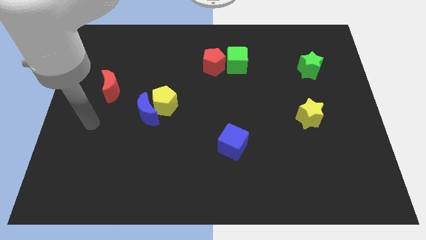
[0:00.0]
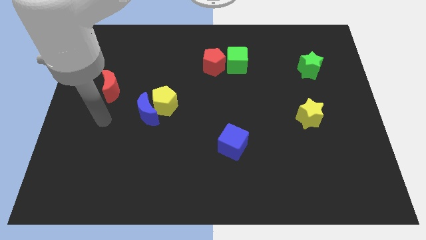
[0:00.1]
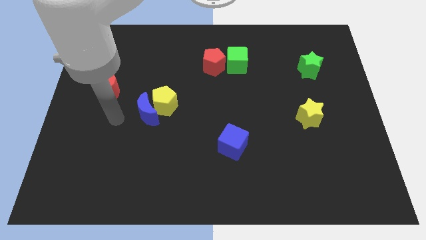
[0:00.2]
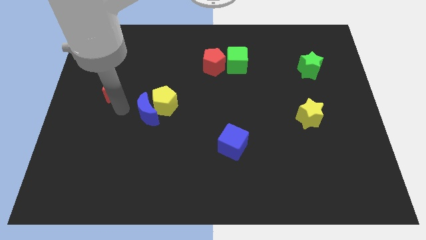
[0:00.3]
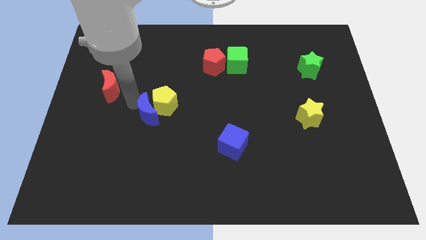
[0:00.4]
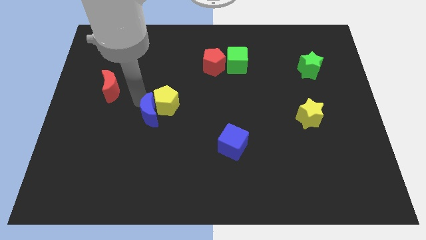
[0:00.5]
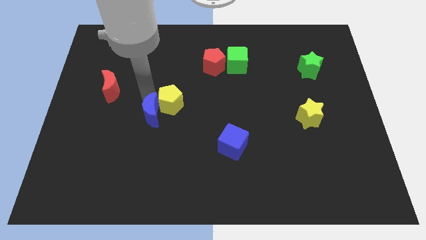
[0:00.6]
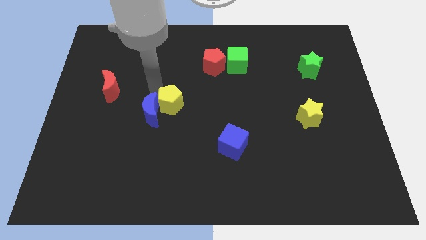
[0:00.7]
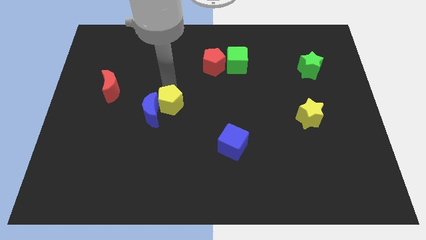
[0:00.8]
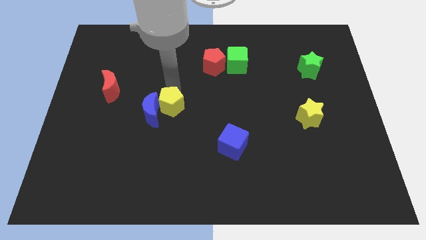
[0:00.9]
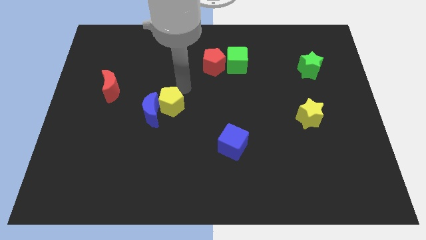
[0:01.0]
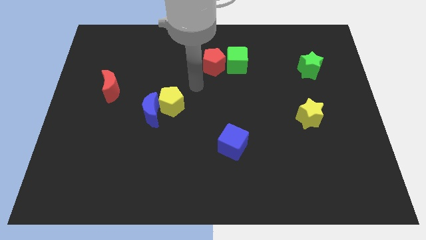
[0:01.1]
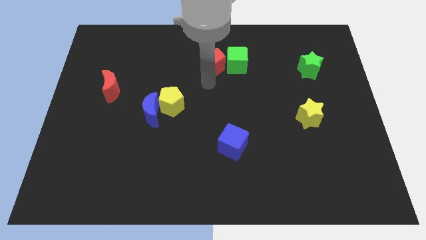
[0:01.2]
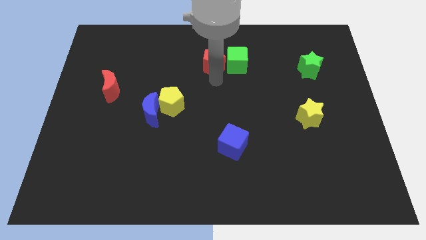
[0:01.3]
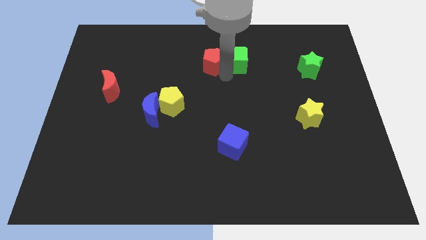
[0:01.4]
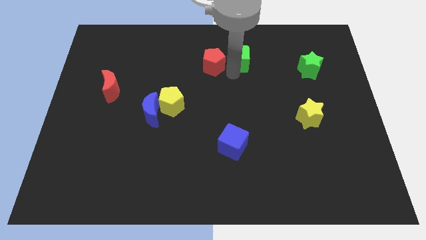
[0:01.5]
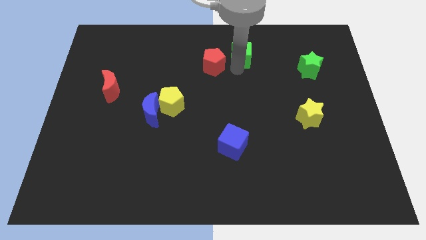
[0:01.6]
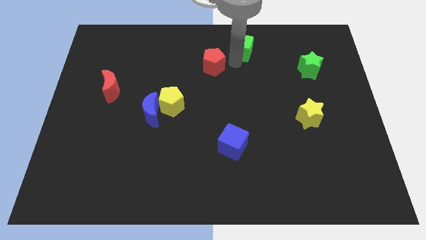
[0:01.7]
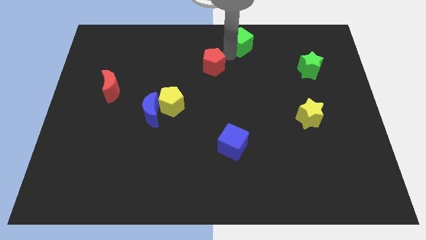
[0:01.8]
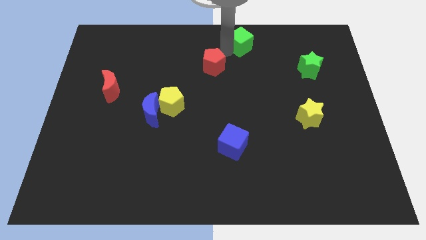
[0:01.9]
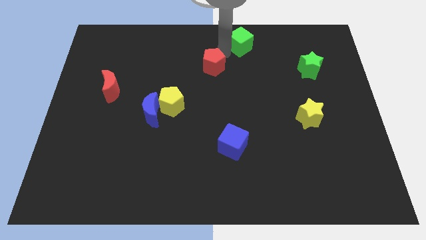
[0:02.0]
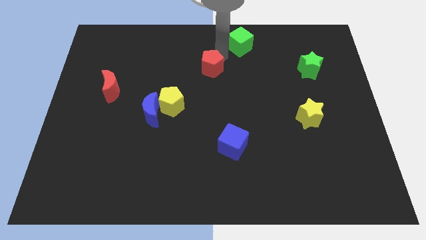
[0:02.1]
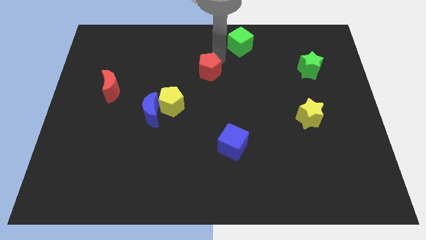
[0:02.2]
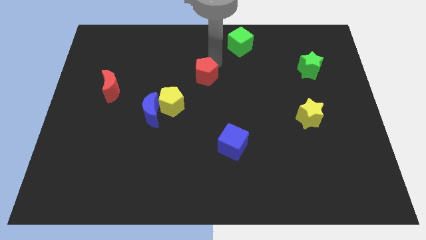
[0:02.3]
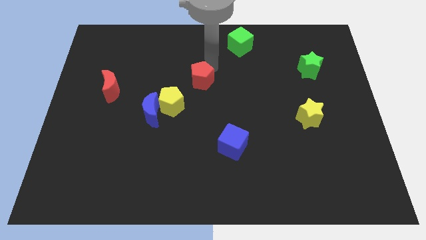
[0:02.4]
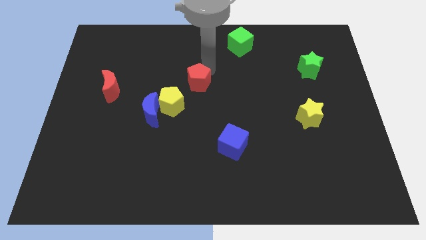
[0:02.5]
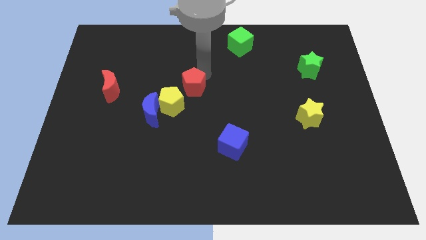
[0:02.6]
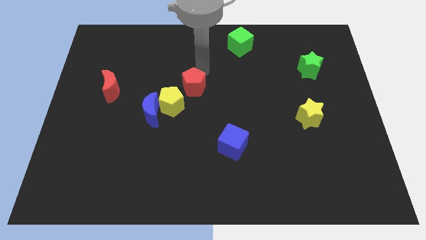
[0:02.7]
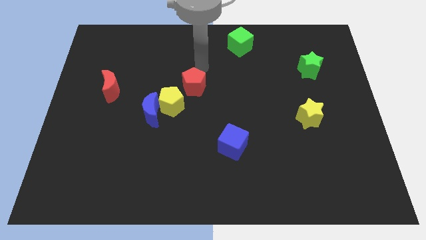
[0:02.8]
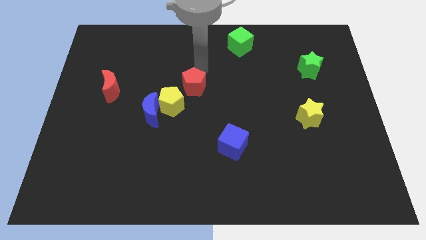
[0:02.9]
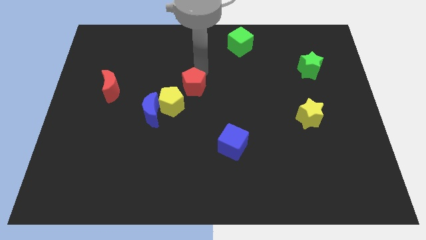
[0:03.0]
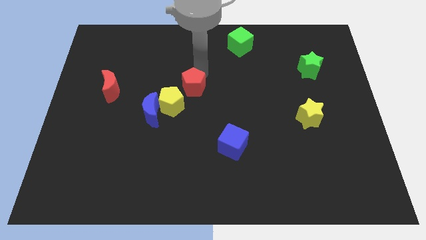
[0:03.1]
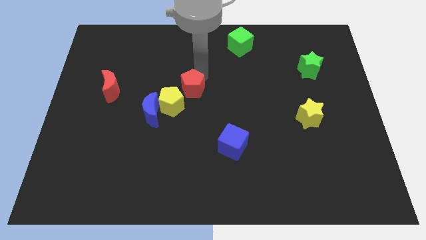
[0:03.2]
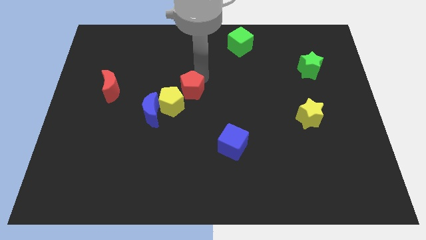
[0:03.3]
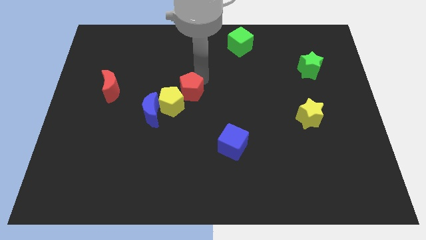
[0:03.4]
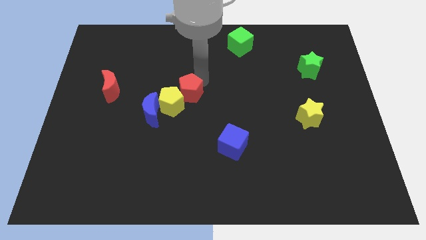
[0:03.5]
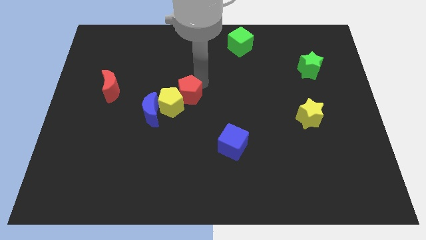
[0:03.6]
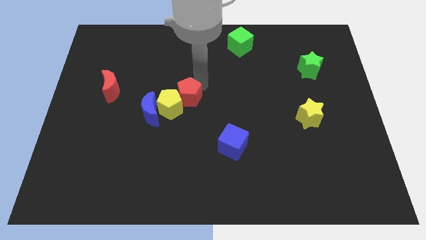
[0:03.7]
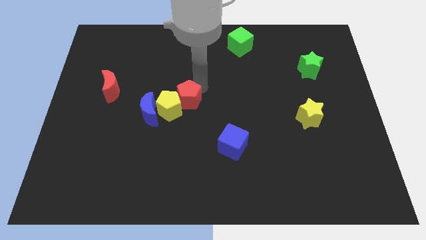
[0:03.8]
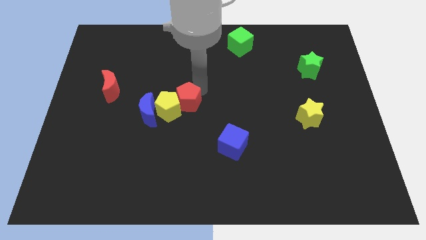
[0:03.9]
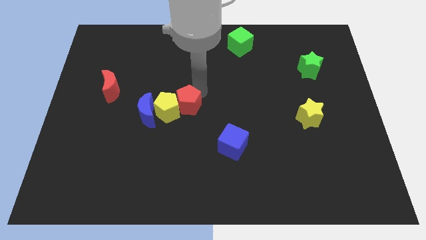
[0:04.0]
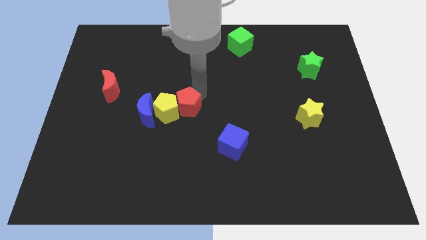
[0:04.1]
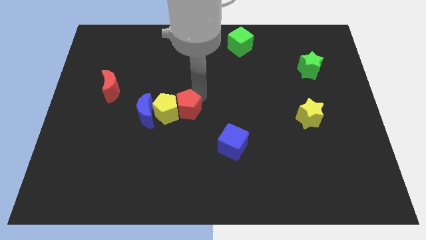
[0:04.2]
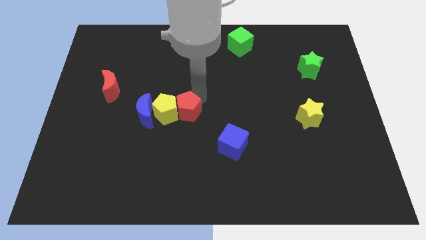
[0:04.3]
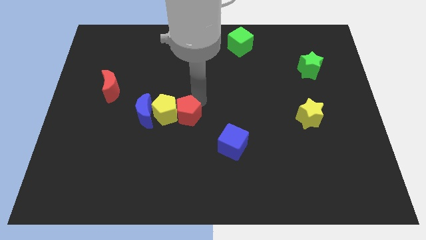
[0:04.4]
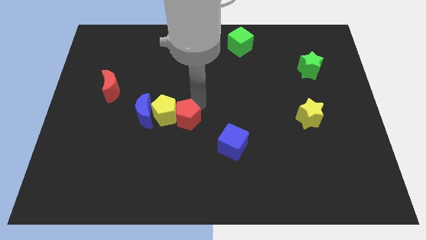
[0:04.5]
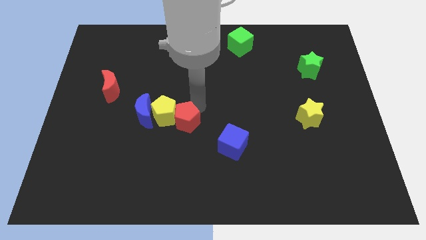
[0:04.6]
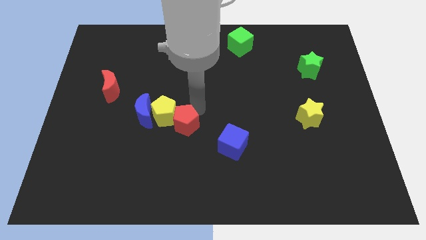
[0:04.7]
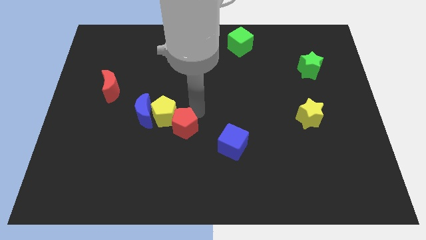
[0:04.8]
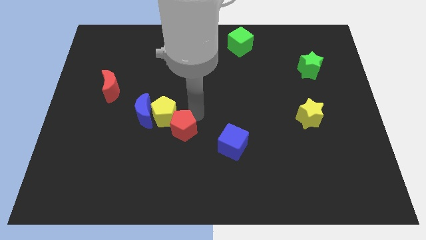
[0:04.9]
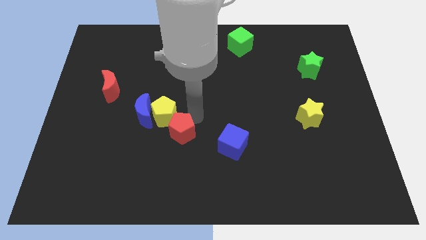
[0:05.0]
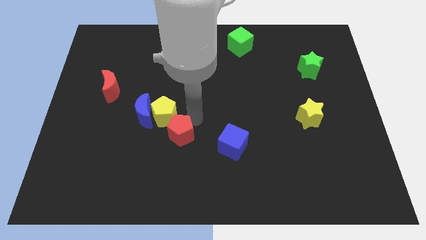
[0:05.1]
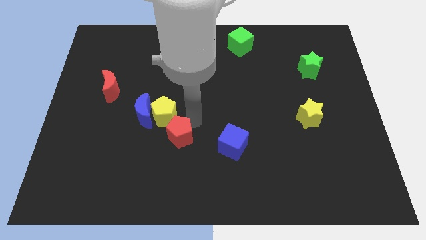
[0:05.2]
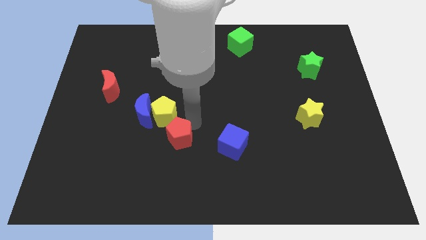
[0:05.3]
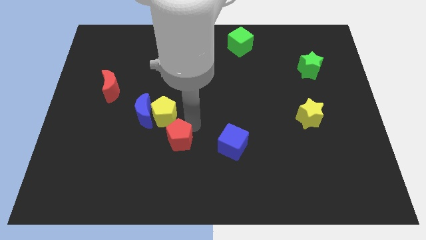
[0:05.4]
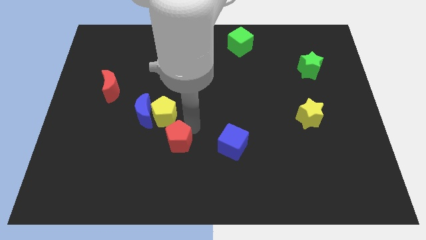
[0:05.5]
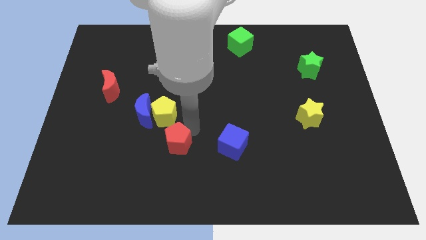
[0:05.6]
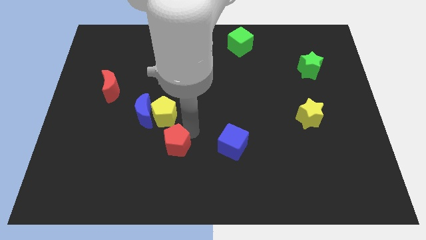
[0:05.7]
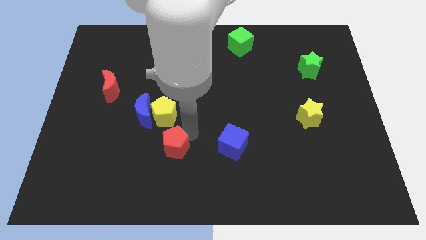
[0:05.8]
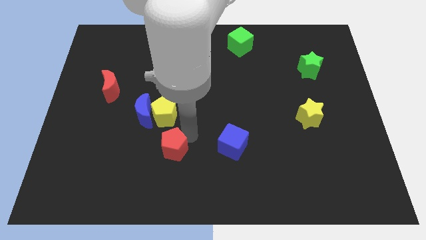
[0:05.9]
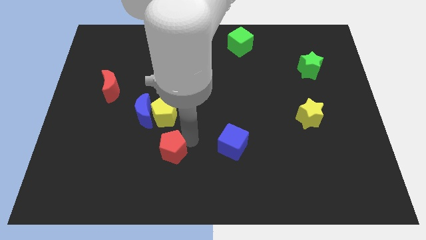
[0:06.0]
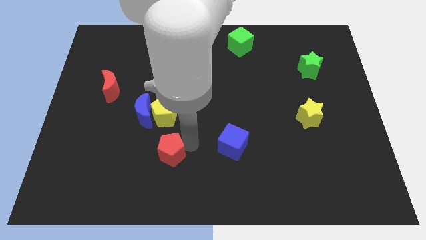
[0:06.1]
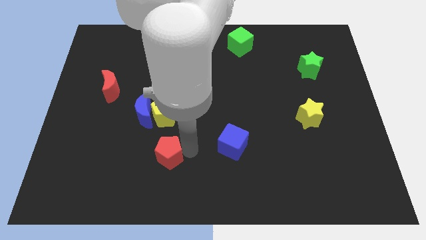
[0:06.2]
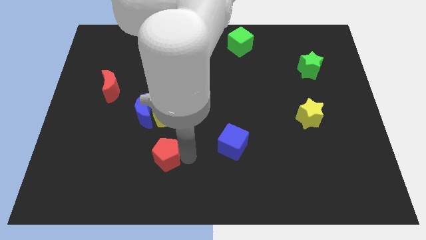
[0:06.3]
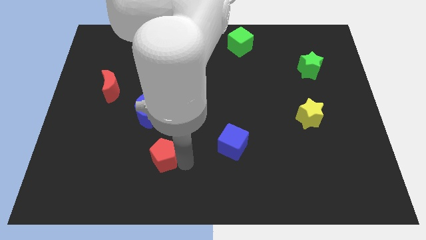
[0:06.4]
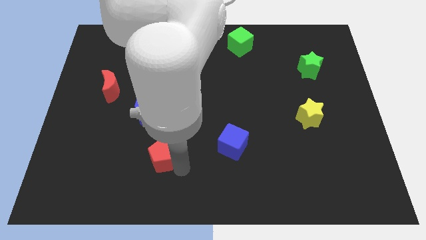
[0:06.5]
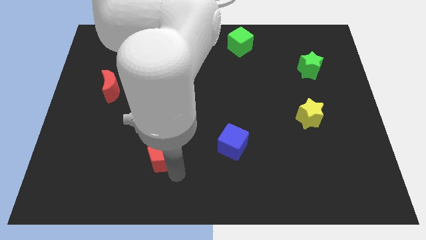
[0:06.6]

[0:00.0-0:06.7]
move the red pentagon to the bottom of the blue moon
